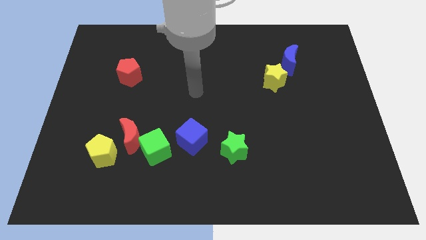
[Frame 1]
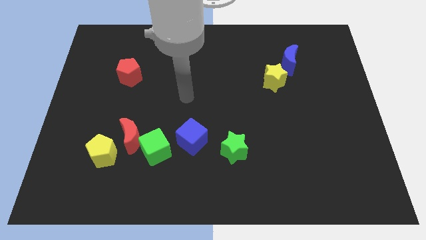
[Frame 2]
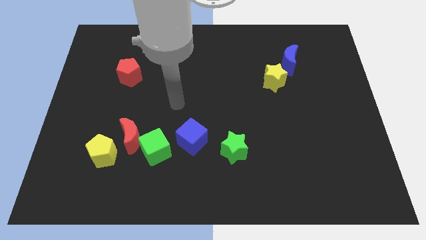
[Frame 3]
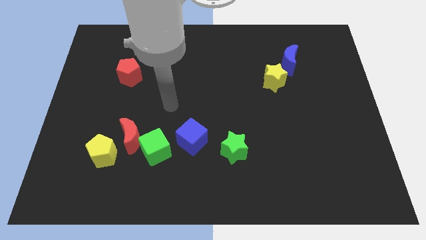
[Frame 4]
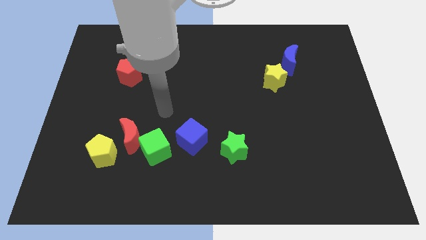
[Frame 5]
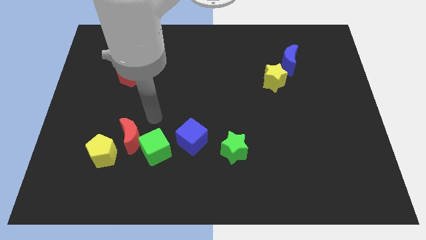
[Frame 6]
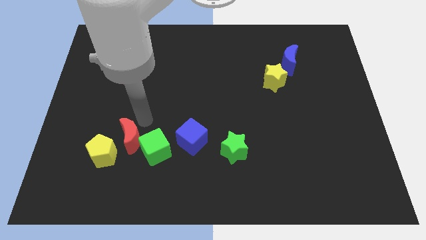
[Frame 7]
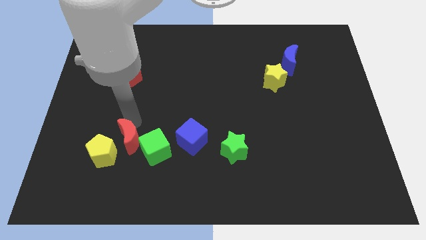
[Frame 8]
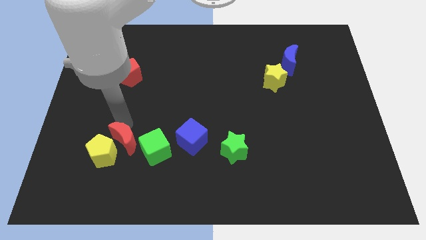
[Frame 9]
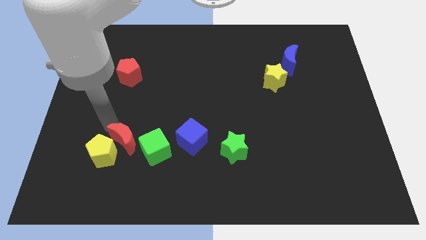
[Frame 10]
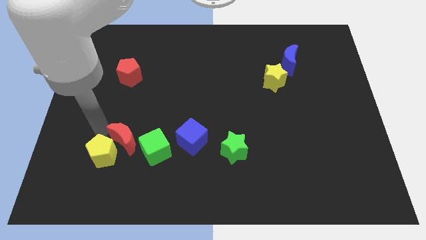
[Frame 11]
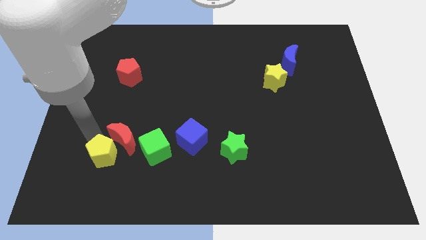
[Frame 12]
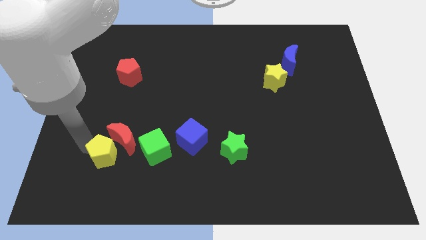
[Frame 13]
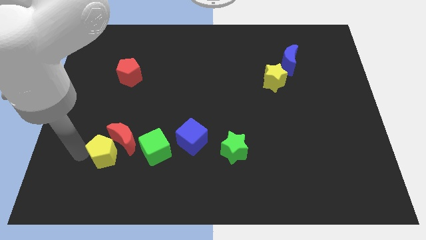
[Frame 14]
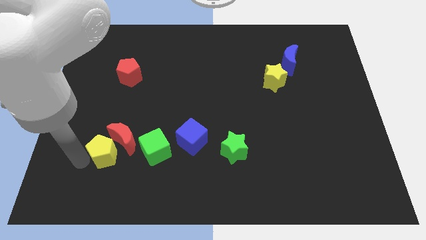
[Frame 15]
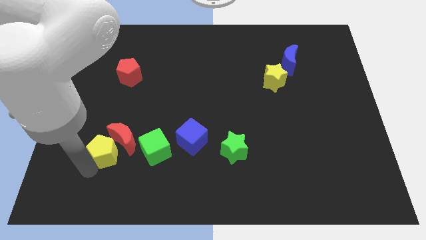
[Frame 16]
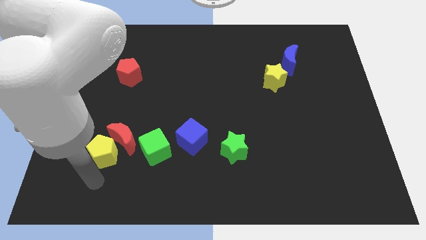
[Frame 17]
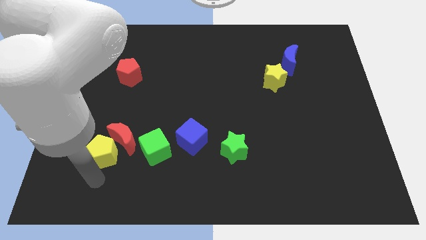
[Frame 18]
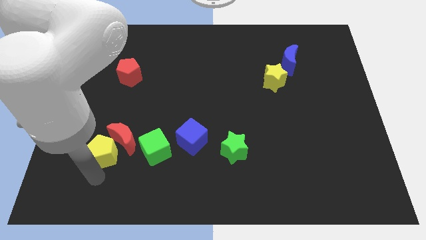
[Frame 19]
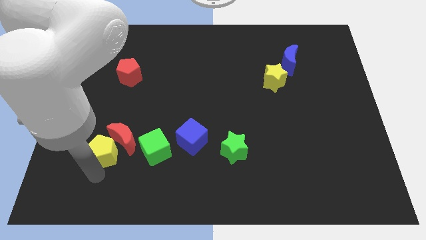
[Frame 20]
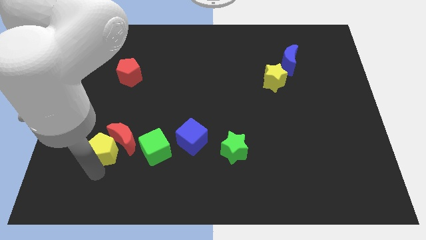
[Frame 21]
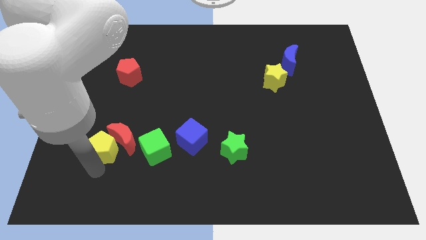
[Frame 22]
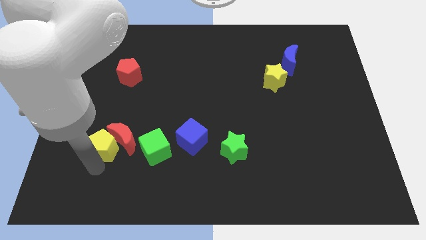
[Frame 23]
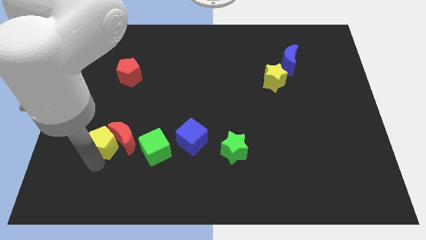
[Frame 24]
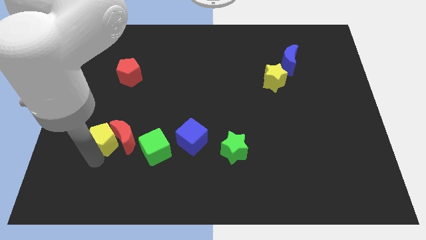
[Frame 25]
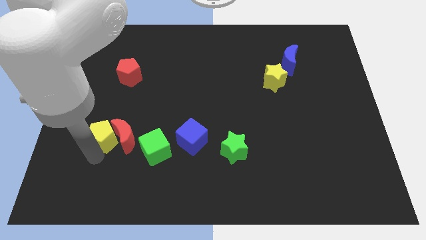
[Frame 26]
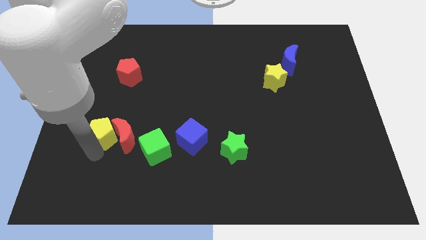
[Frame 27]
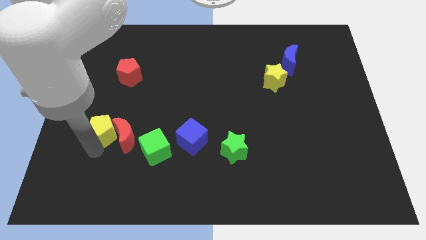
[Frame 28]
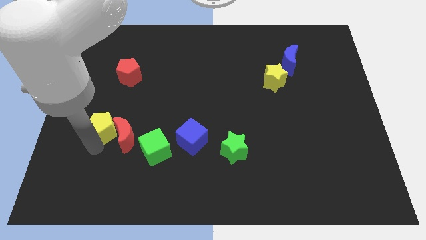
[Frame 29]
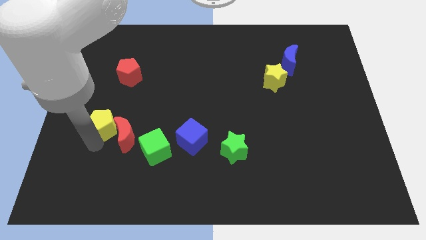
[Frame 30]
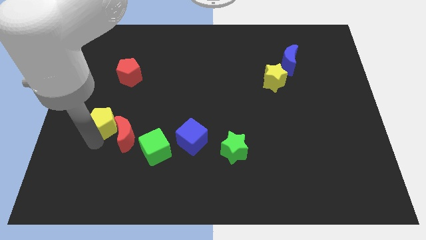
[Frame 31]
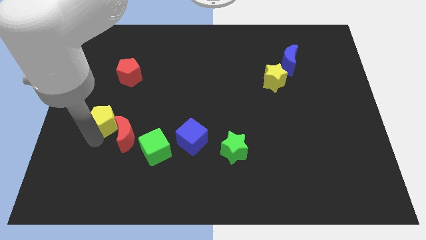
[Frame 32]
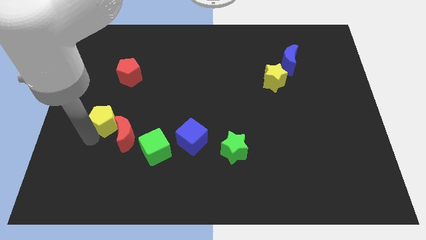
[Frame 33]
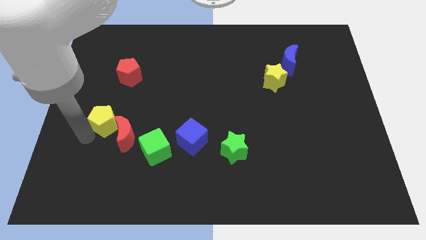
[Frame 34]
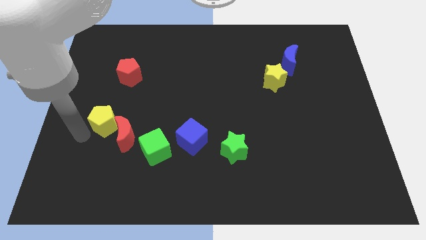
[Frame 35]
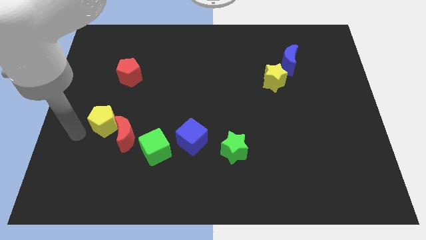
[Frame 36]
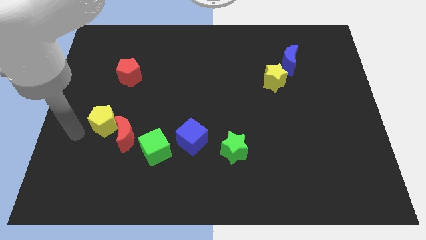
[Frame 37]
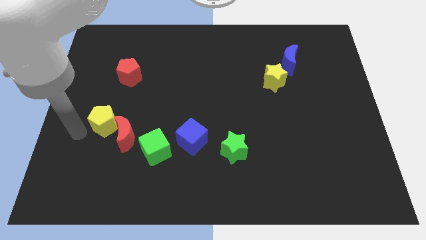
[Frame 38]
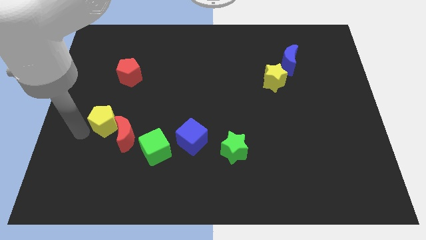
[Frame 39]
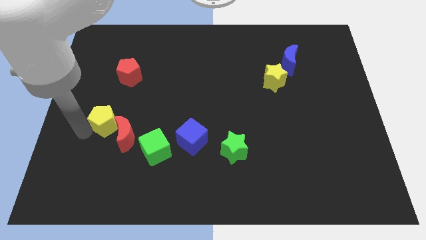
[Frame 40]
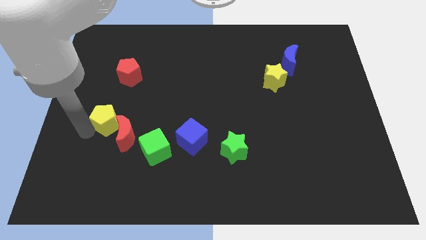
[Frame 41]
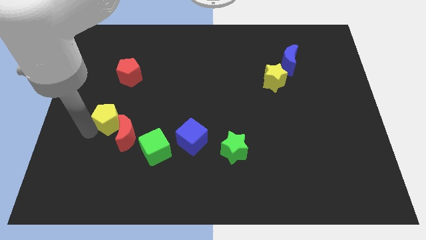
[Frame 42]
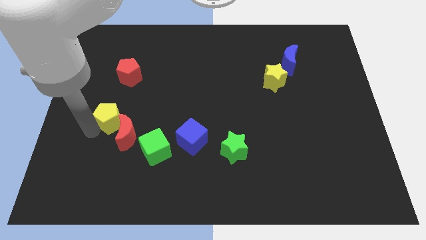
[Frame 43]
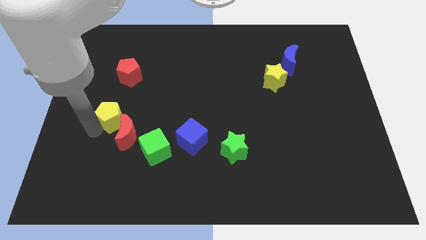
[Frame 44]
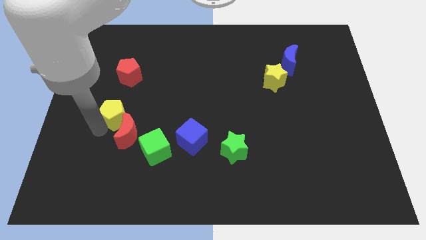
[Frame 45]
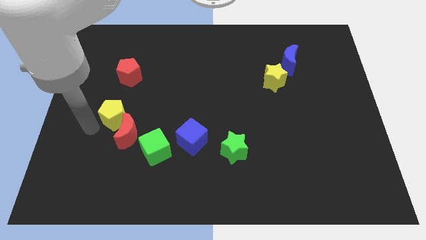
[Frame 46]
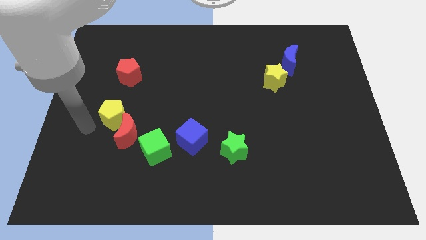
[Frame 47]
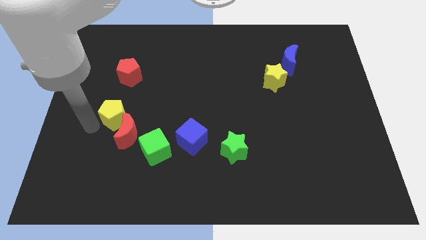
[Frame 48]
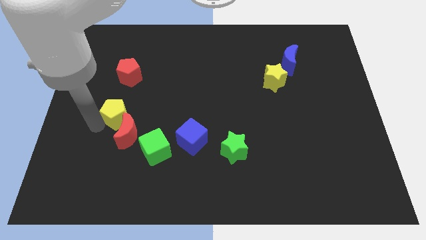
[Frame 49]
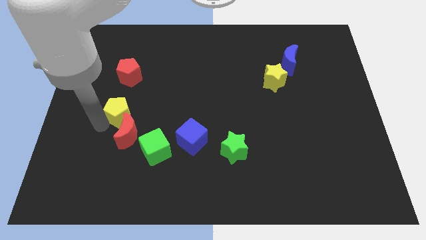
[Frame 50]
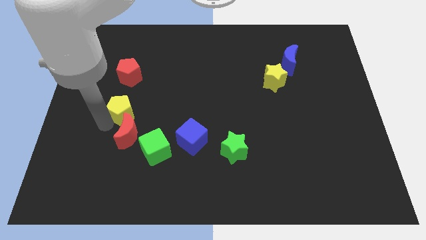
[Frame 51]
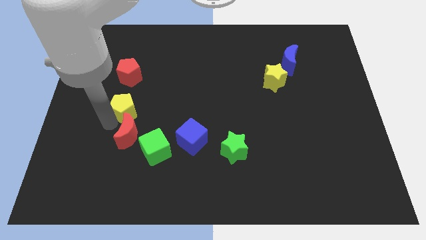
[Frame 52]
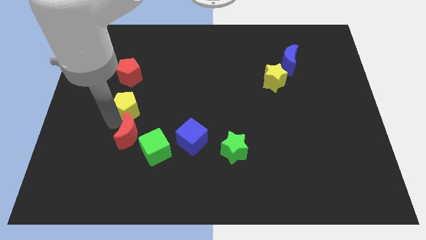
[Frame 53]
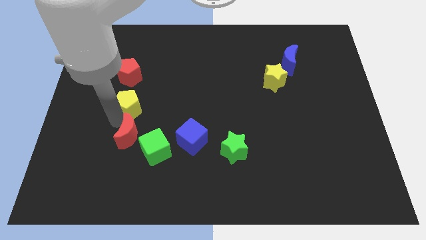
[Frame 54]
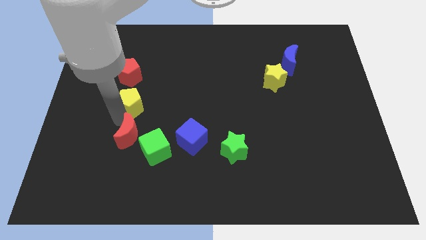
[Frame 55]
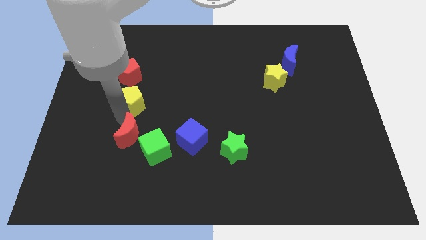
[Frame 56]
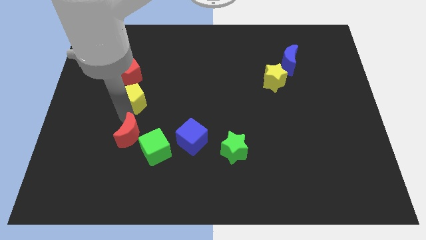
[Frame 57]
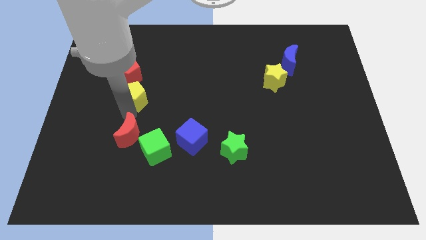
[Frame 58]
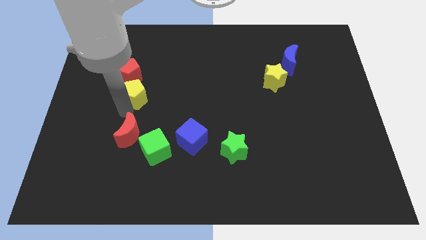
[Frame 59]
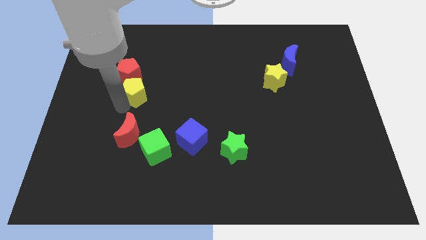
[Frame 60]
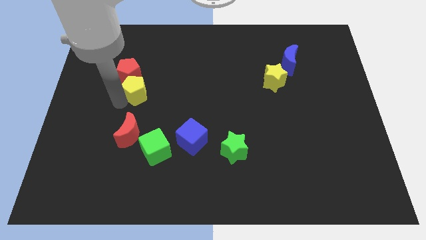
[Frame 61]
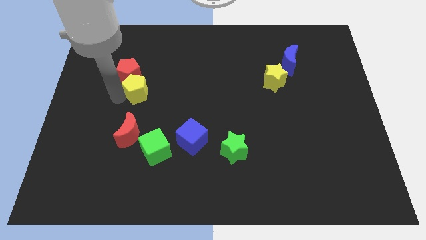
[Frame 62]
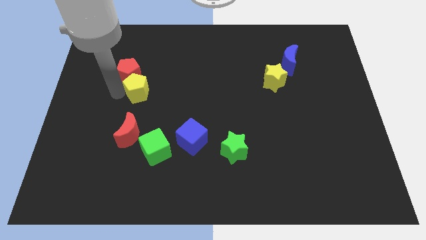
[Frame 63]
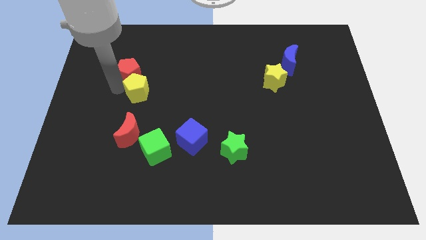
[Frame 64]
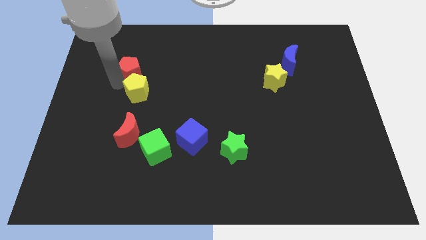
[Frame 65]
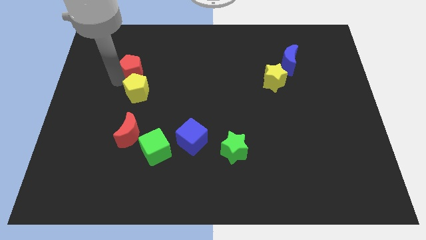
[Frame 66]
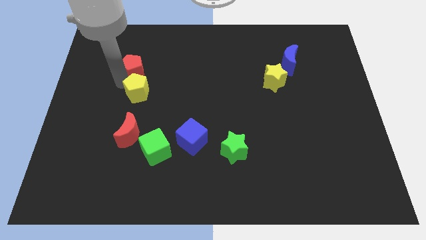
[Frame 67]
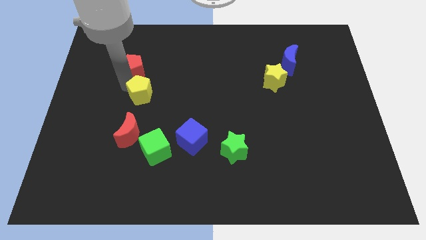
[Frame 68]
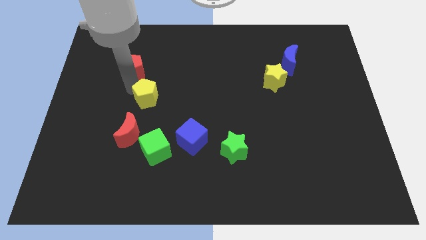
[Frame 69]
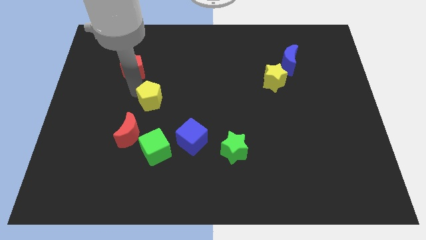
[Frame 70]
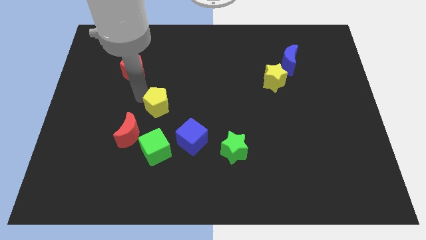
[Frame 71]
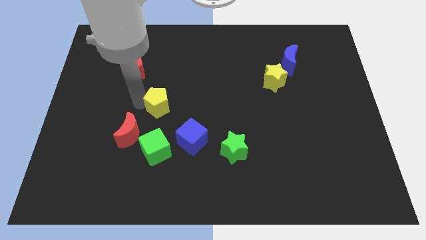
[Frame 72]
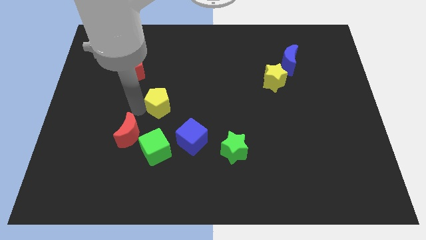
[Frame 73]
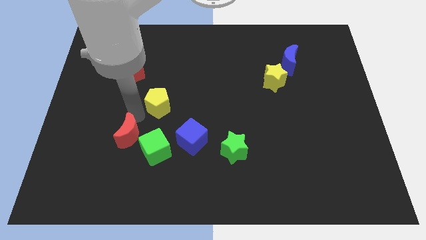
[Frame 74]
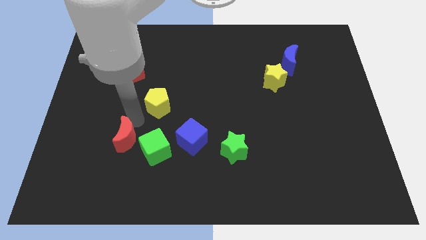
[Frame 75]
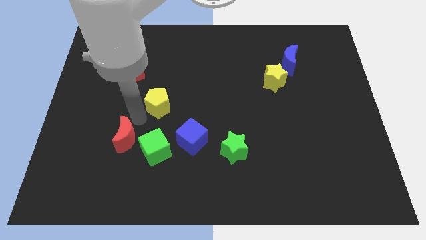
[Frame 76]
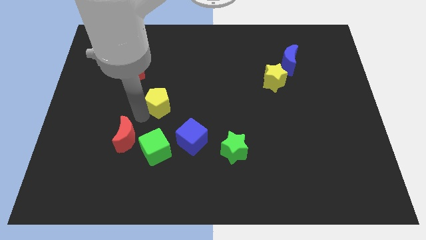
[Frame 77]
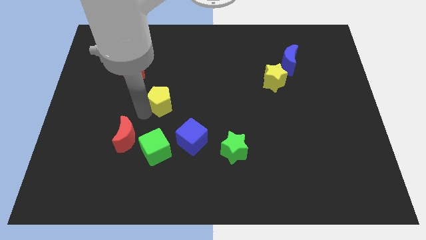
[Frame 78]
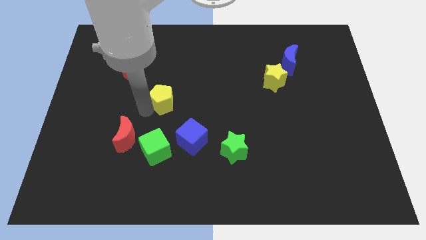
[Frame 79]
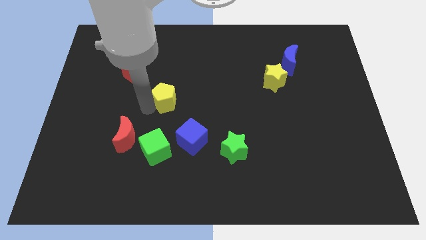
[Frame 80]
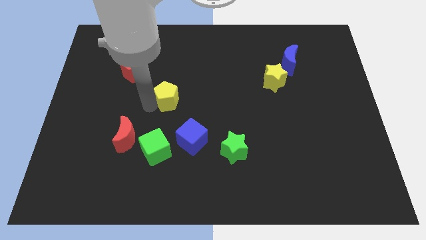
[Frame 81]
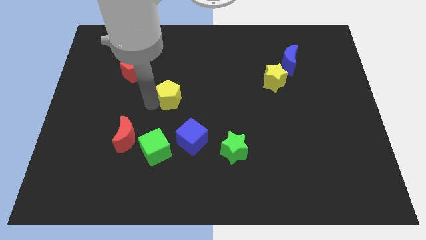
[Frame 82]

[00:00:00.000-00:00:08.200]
slide the yellow pentagon up and right diagonally
